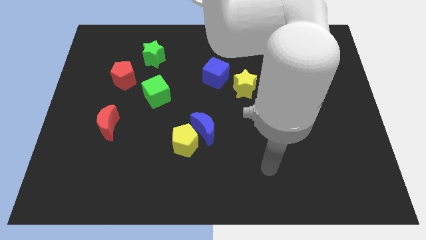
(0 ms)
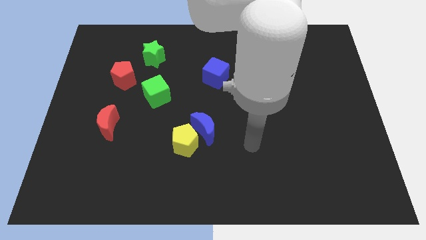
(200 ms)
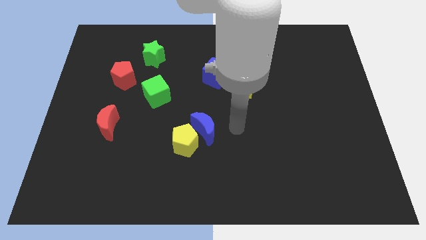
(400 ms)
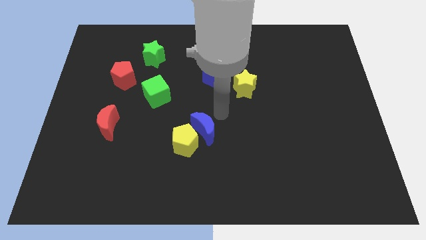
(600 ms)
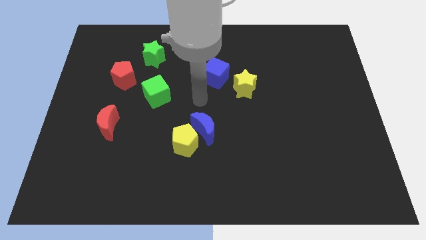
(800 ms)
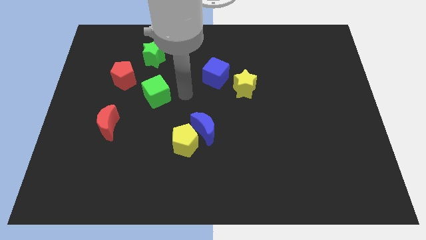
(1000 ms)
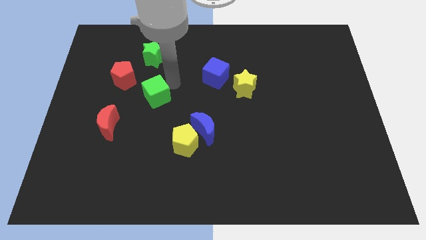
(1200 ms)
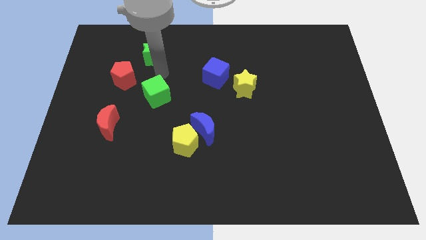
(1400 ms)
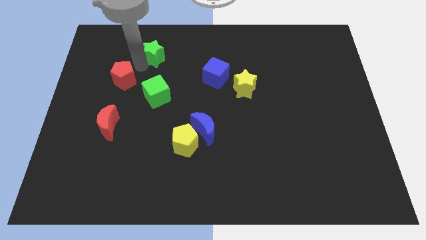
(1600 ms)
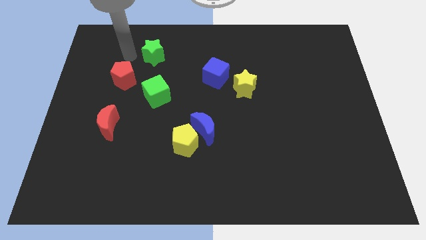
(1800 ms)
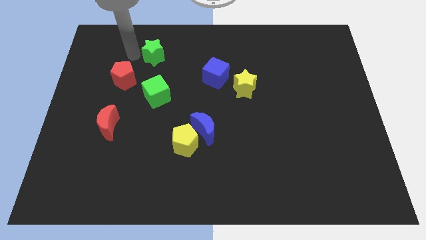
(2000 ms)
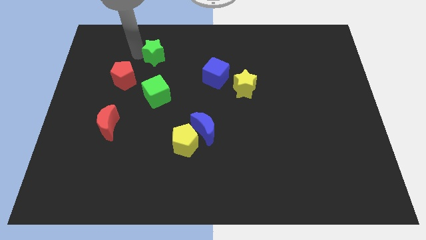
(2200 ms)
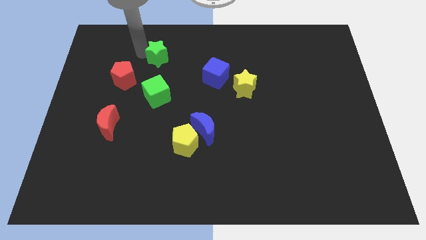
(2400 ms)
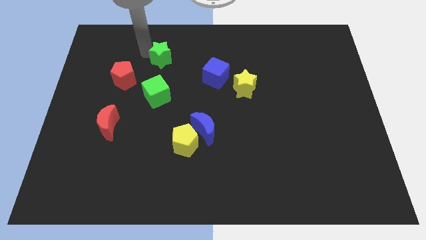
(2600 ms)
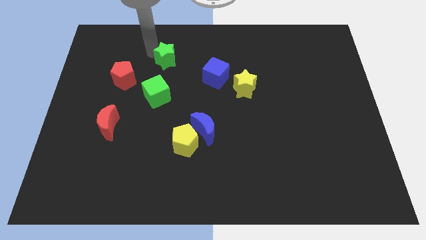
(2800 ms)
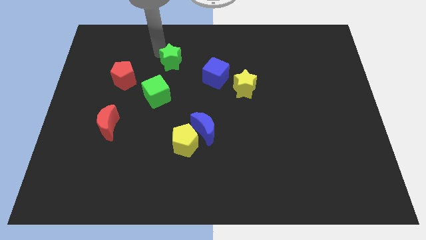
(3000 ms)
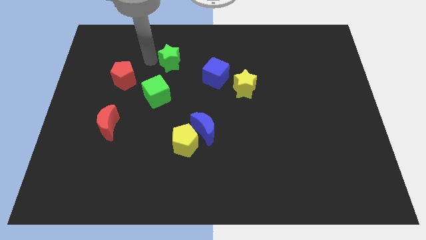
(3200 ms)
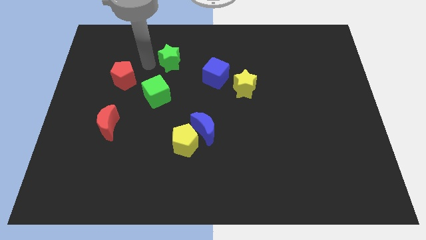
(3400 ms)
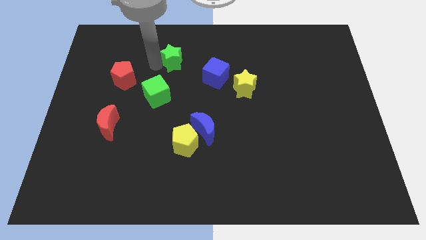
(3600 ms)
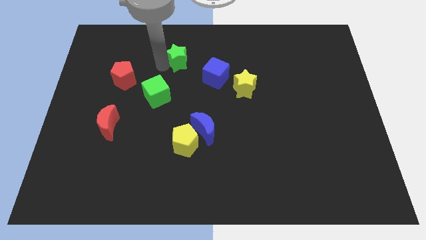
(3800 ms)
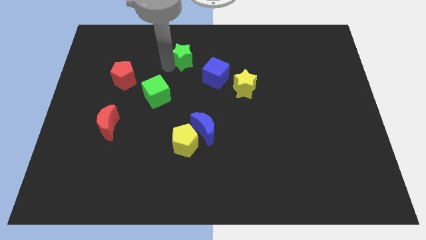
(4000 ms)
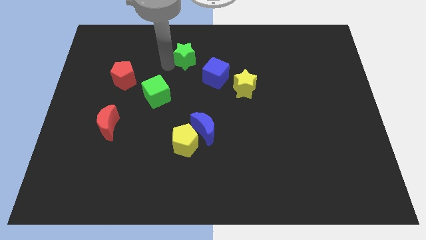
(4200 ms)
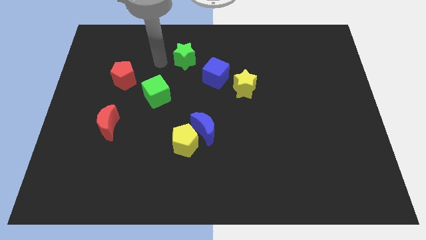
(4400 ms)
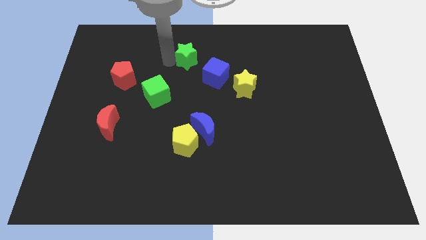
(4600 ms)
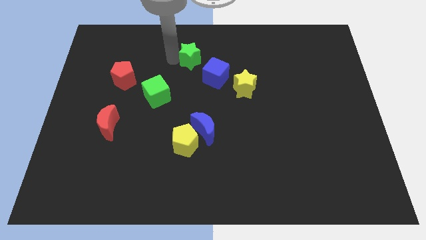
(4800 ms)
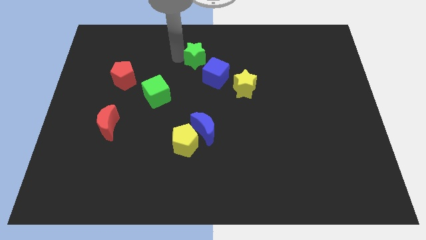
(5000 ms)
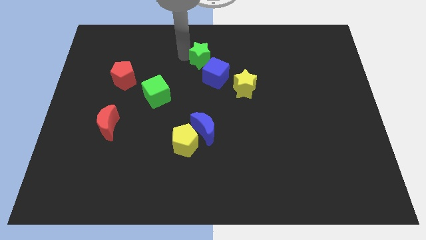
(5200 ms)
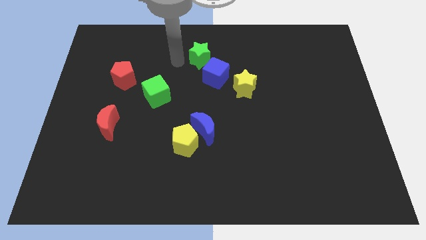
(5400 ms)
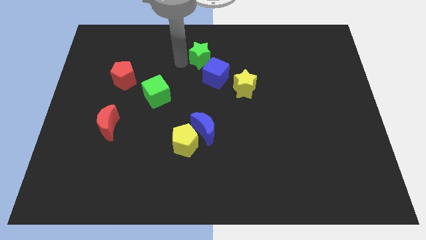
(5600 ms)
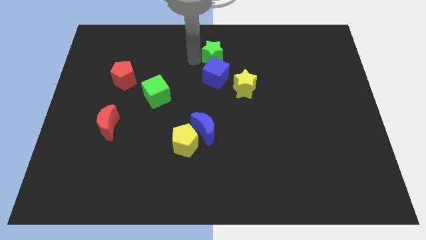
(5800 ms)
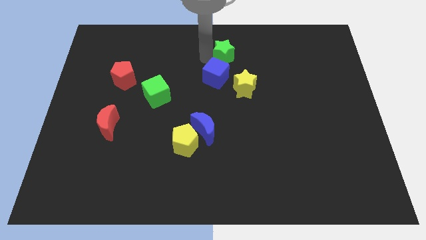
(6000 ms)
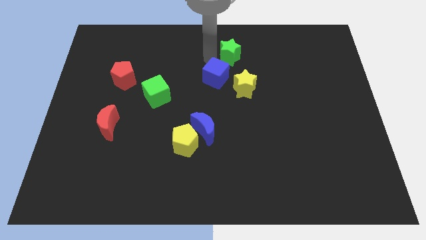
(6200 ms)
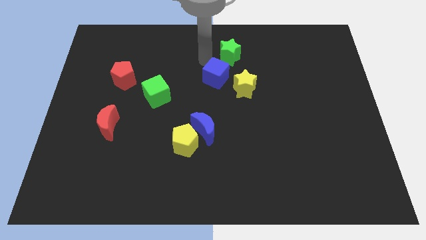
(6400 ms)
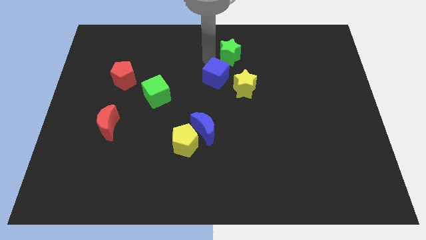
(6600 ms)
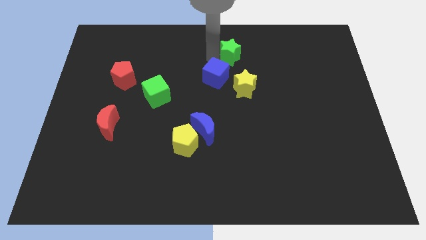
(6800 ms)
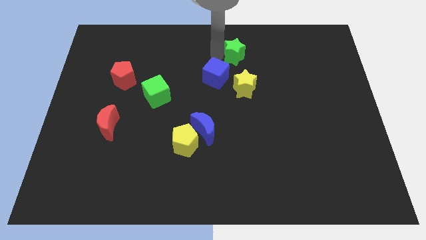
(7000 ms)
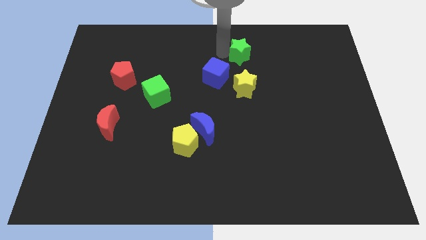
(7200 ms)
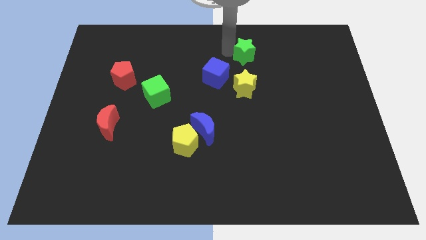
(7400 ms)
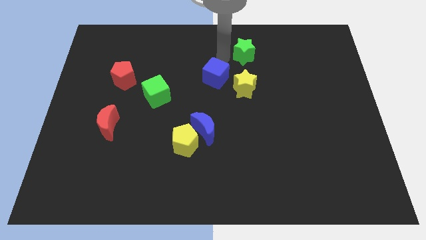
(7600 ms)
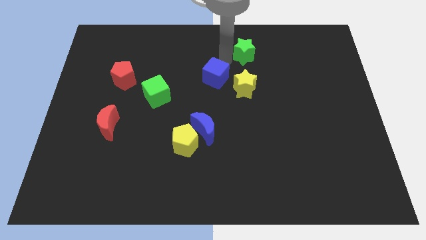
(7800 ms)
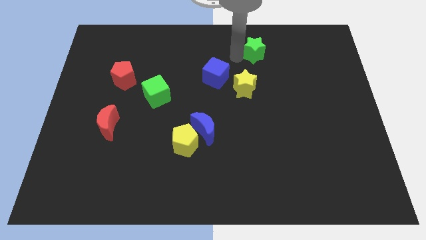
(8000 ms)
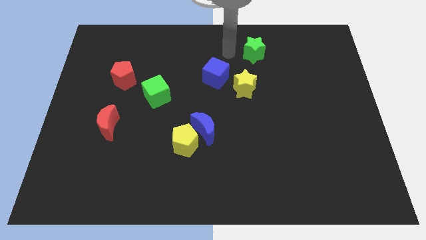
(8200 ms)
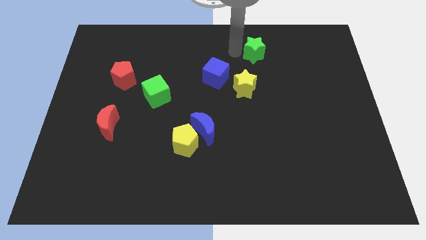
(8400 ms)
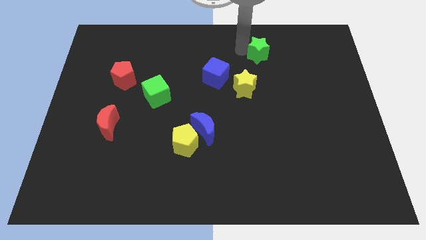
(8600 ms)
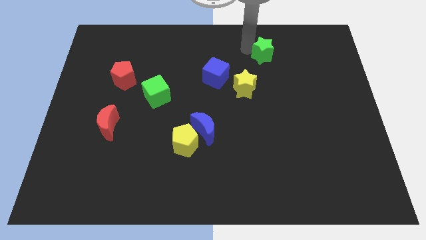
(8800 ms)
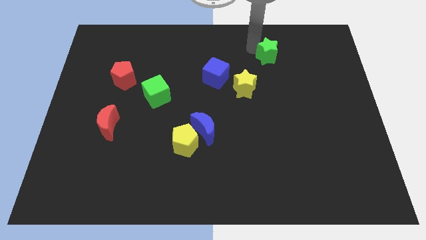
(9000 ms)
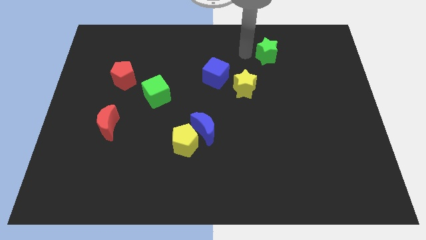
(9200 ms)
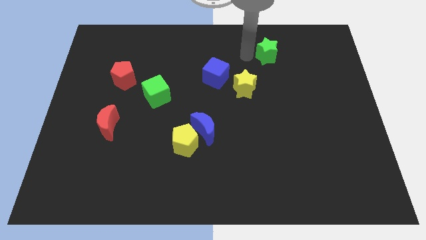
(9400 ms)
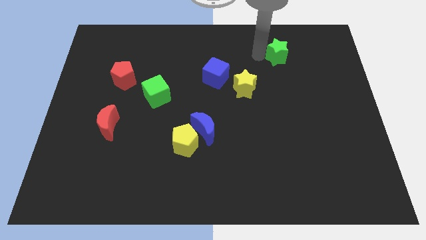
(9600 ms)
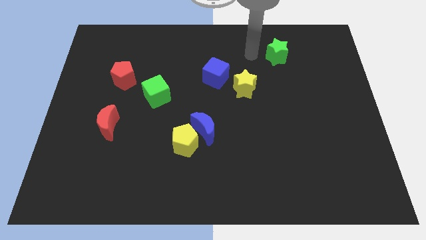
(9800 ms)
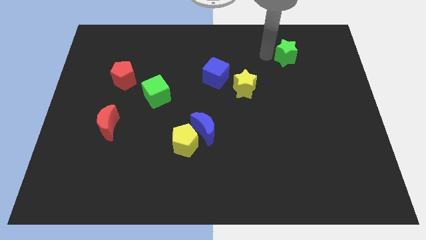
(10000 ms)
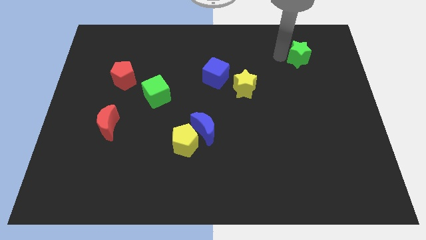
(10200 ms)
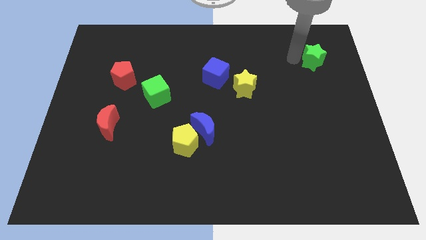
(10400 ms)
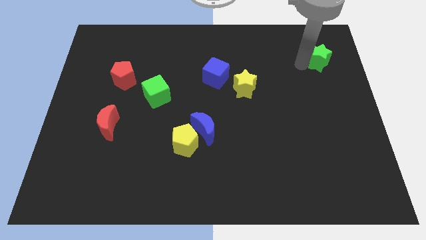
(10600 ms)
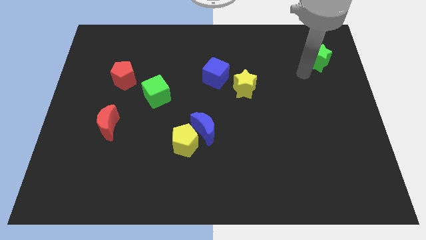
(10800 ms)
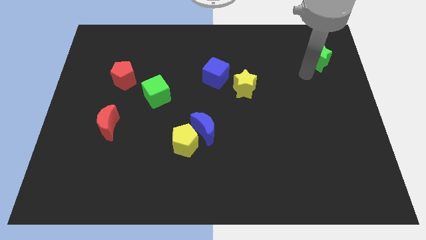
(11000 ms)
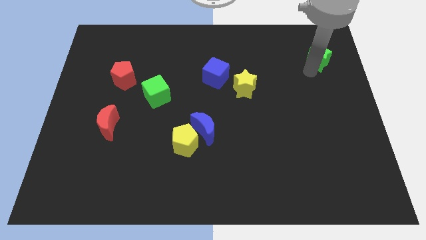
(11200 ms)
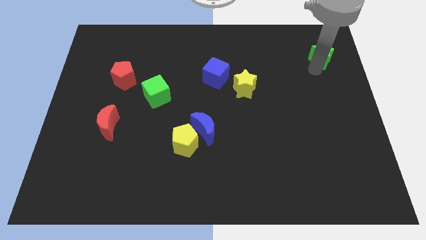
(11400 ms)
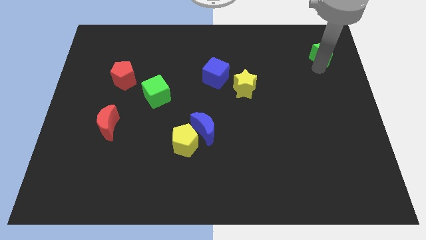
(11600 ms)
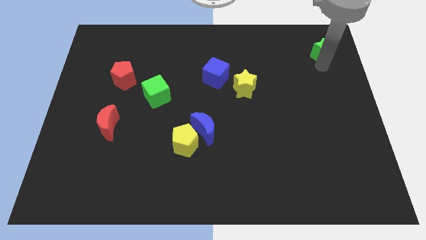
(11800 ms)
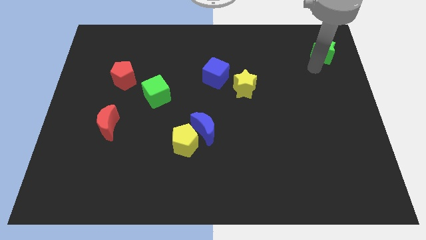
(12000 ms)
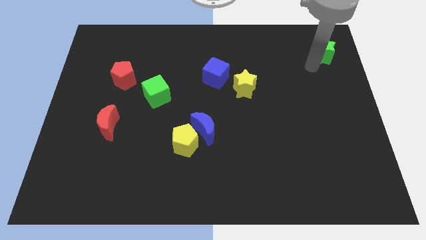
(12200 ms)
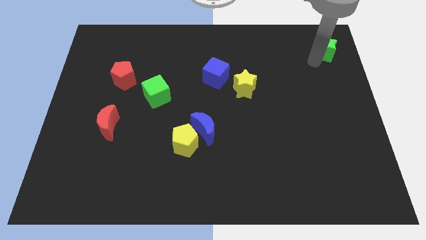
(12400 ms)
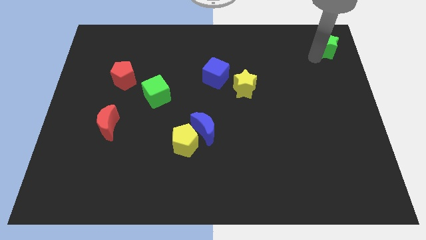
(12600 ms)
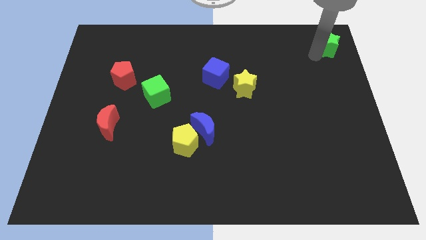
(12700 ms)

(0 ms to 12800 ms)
put the green star to the top right corner
